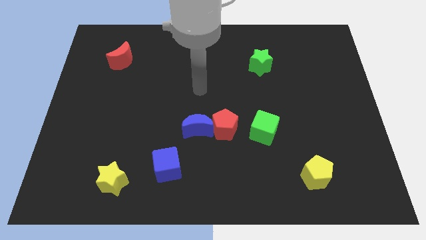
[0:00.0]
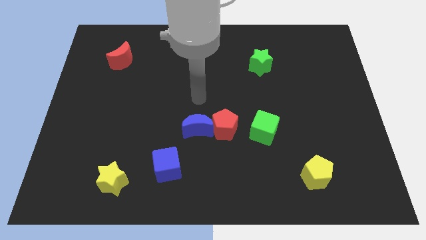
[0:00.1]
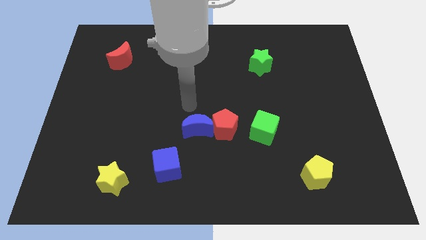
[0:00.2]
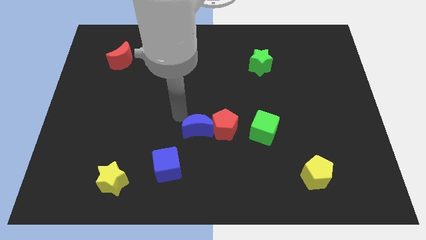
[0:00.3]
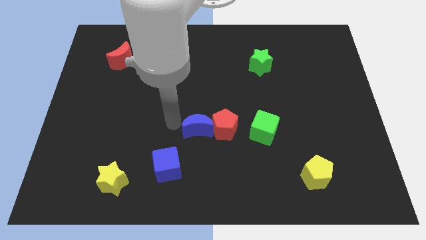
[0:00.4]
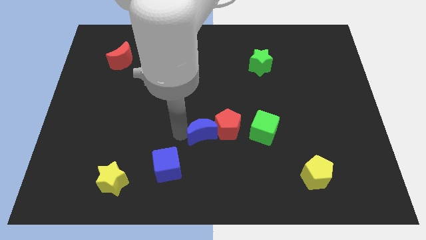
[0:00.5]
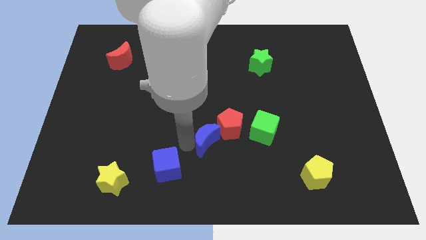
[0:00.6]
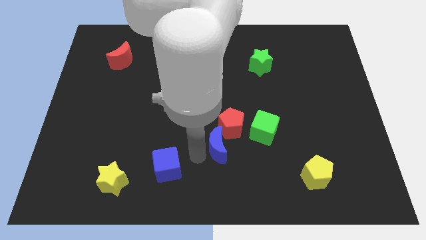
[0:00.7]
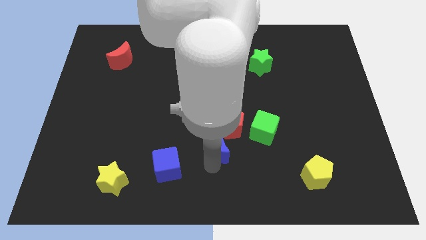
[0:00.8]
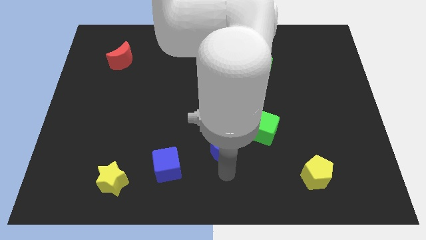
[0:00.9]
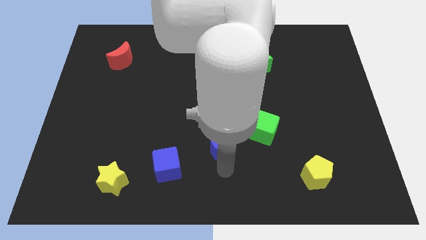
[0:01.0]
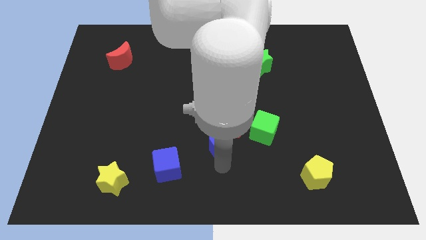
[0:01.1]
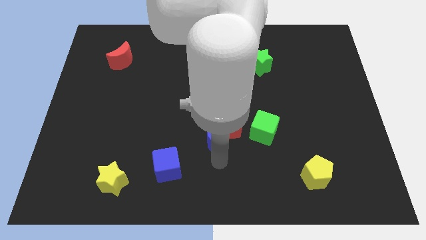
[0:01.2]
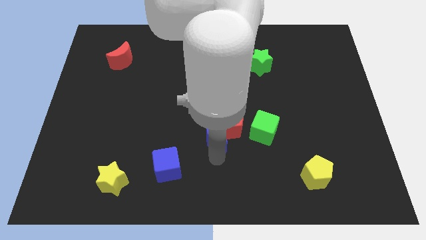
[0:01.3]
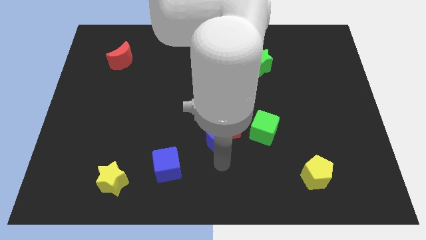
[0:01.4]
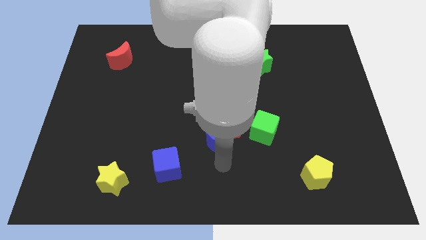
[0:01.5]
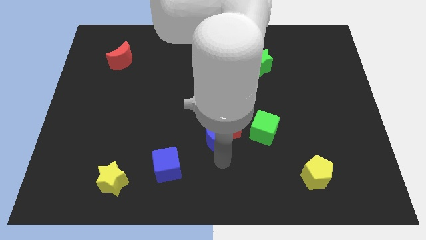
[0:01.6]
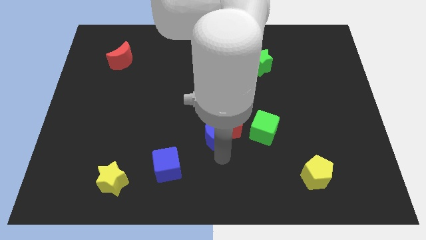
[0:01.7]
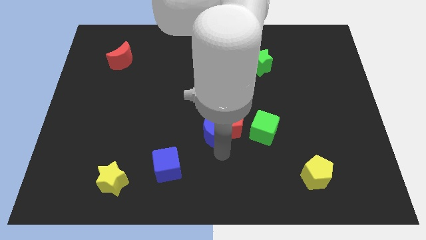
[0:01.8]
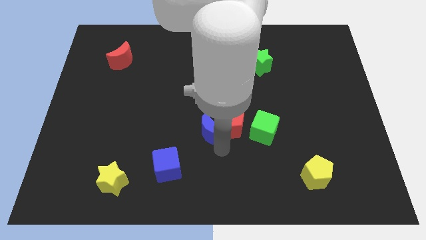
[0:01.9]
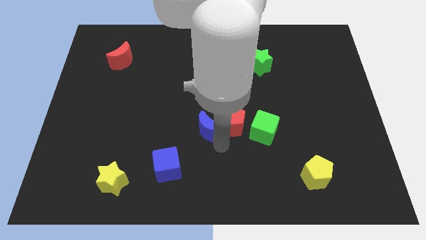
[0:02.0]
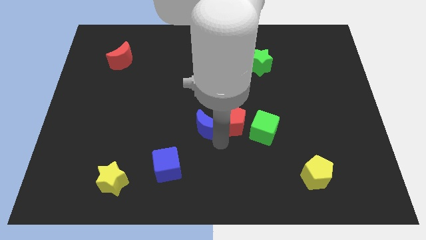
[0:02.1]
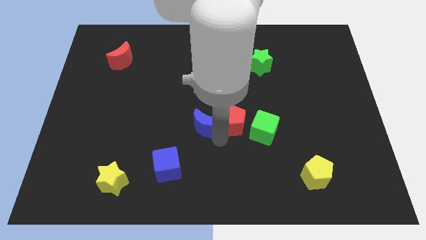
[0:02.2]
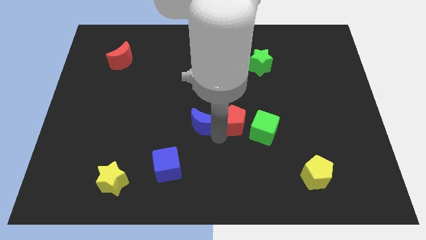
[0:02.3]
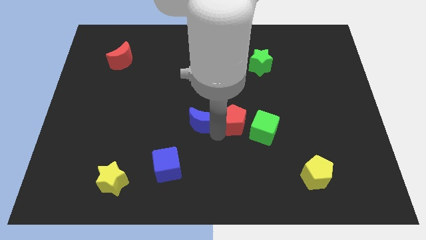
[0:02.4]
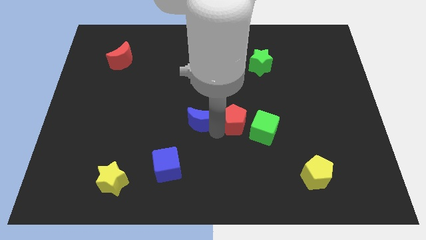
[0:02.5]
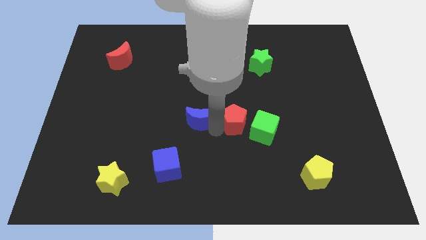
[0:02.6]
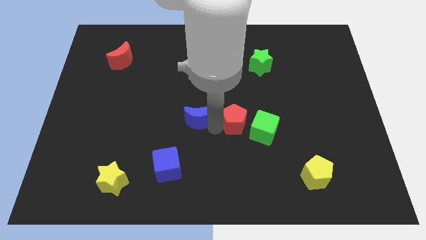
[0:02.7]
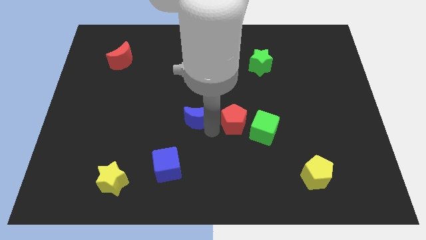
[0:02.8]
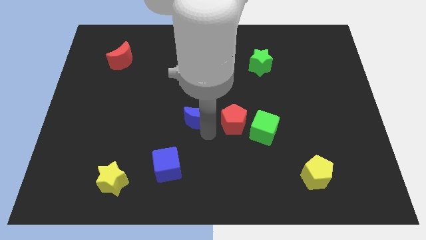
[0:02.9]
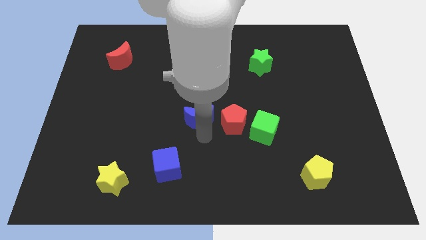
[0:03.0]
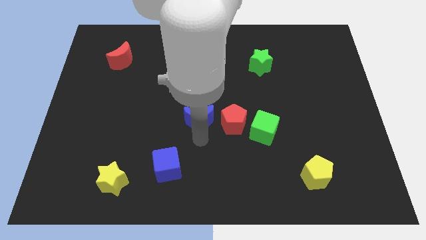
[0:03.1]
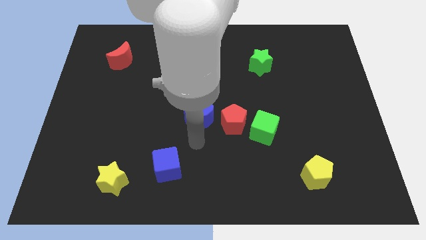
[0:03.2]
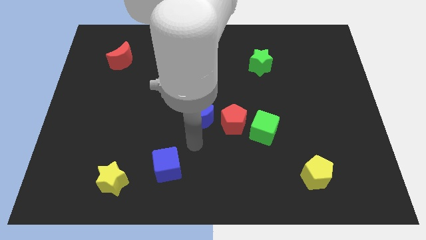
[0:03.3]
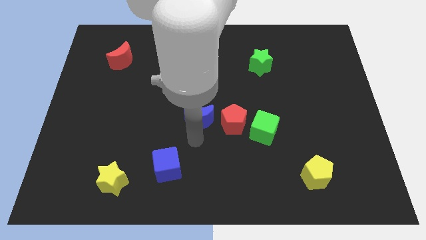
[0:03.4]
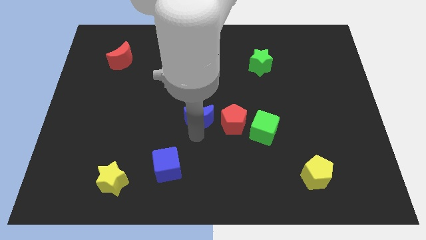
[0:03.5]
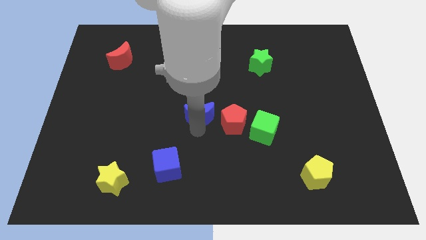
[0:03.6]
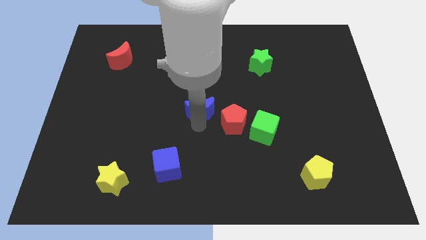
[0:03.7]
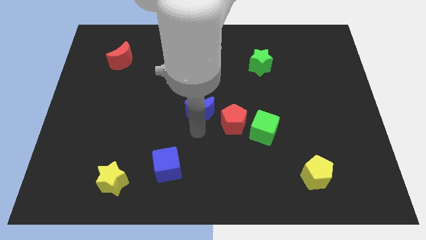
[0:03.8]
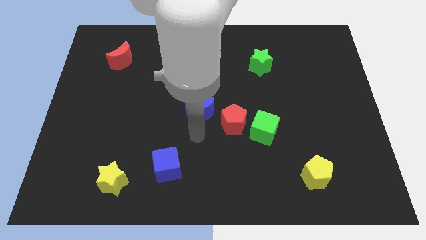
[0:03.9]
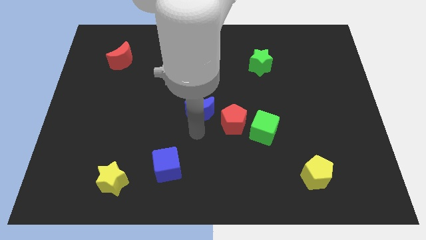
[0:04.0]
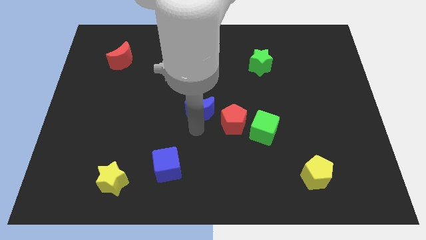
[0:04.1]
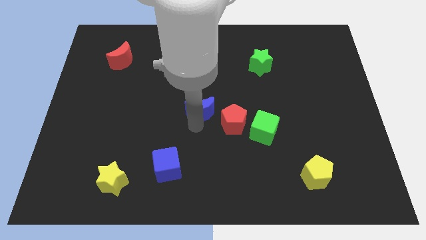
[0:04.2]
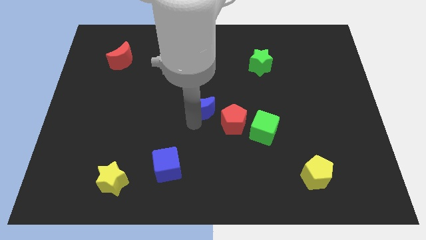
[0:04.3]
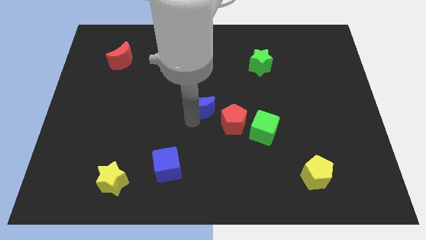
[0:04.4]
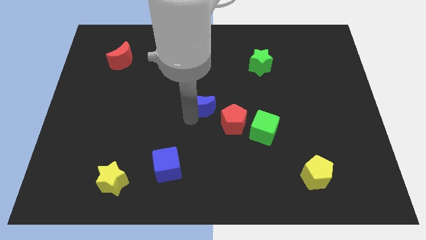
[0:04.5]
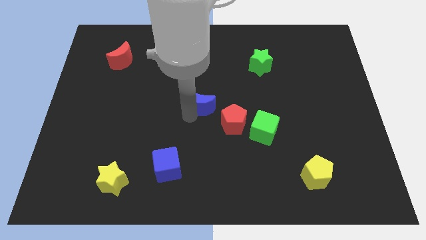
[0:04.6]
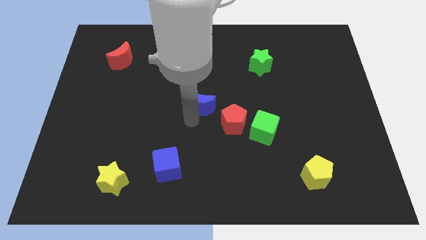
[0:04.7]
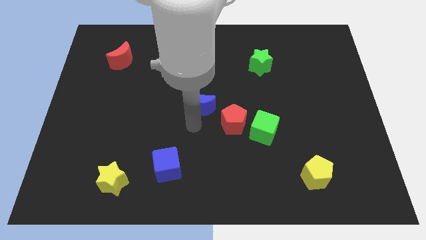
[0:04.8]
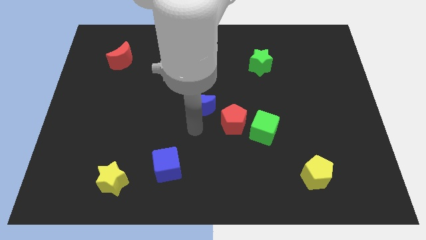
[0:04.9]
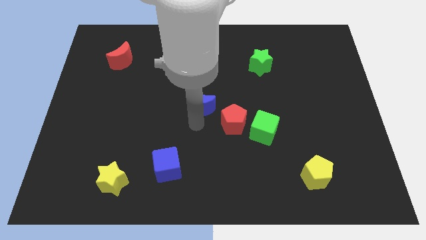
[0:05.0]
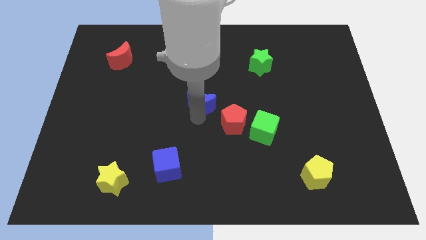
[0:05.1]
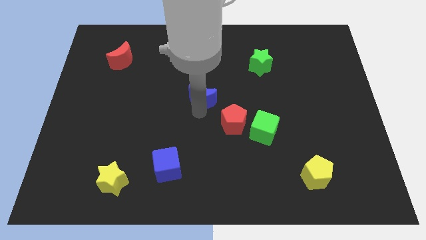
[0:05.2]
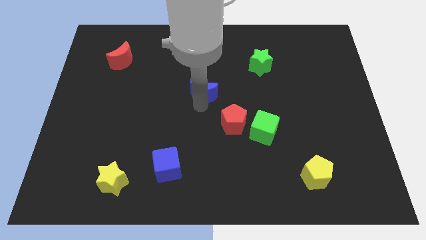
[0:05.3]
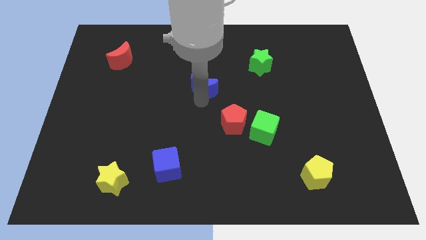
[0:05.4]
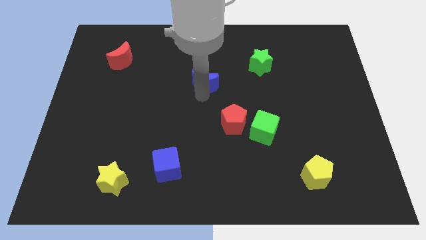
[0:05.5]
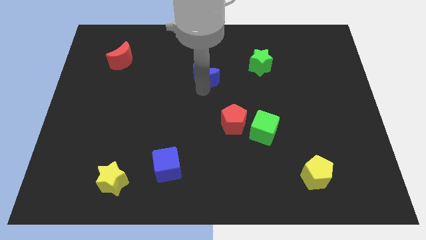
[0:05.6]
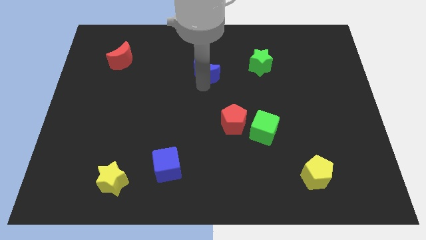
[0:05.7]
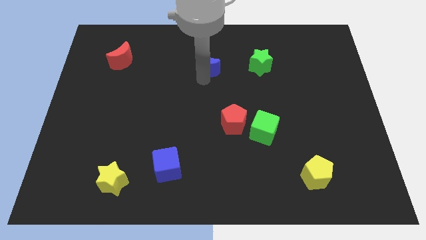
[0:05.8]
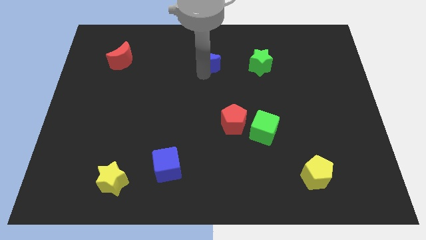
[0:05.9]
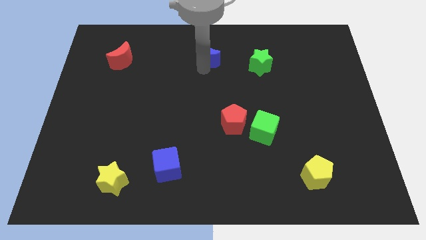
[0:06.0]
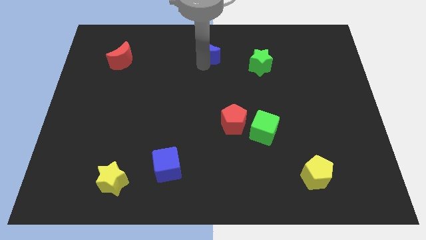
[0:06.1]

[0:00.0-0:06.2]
move the blue moon to the towards your base

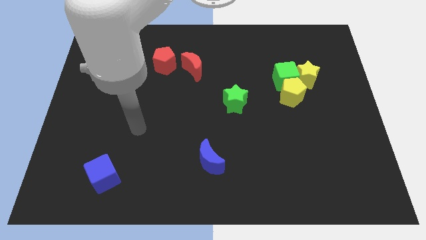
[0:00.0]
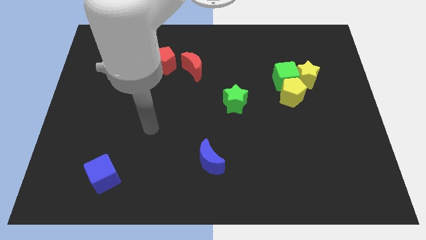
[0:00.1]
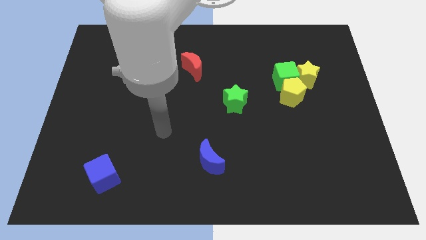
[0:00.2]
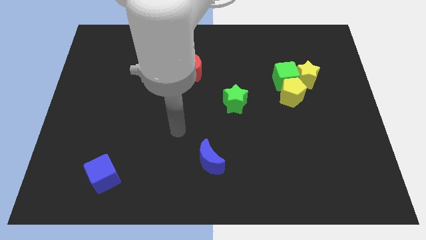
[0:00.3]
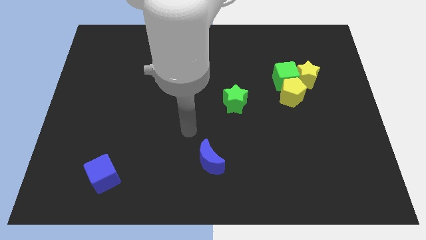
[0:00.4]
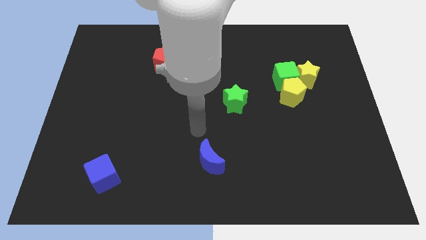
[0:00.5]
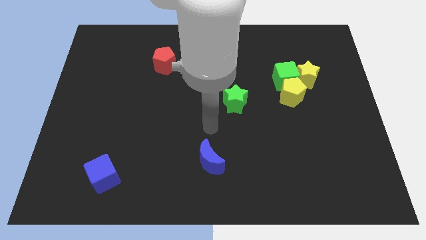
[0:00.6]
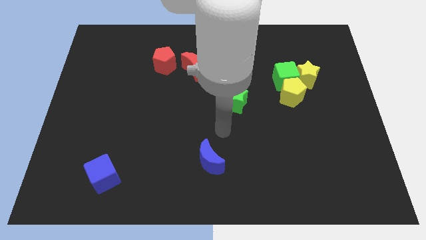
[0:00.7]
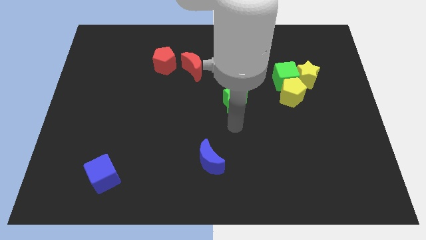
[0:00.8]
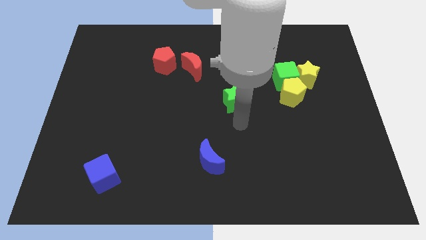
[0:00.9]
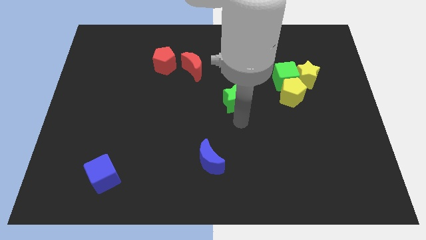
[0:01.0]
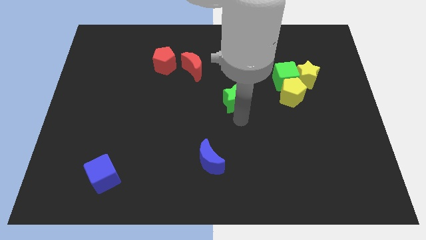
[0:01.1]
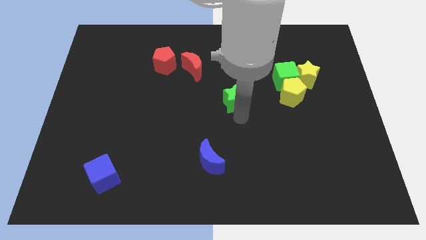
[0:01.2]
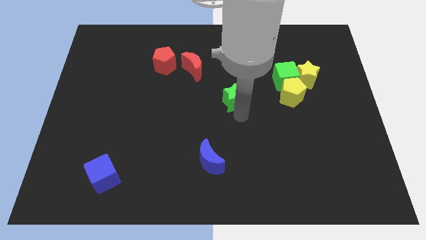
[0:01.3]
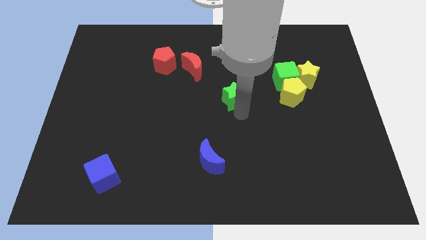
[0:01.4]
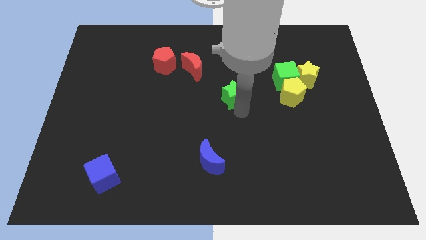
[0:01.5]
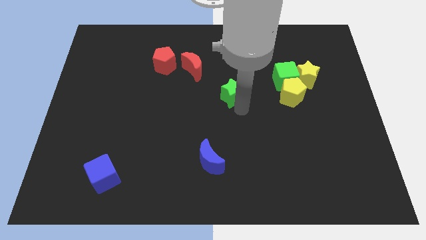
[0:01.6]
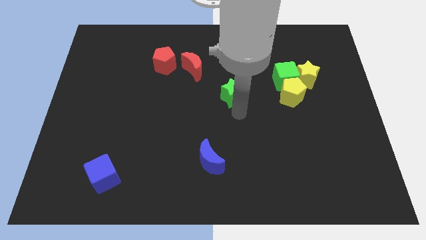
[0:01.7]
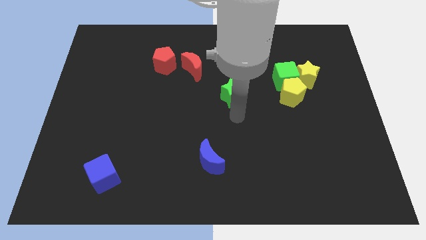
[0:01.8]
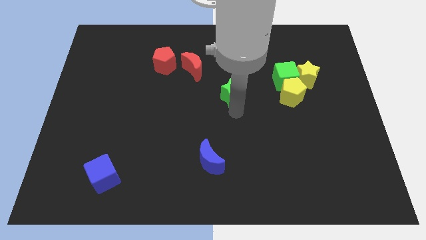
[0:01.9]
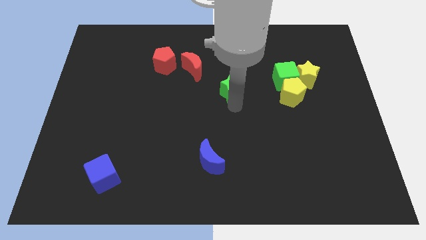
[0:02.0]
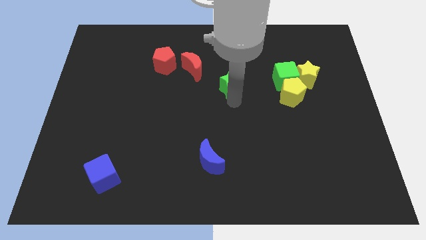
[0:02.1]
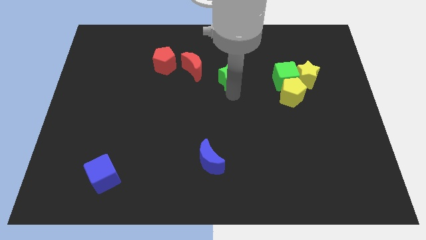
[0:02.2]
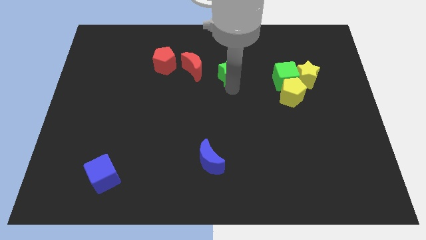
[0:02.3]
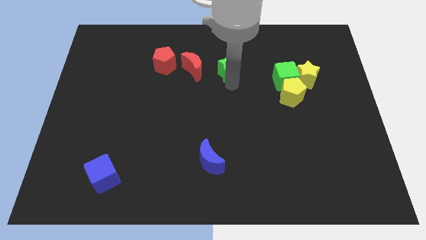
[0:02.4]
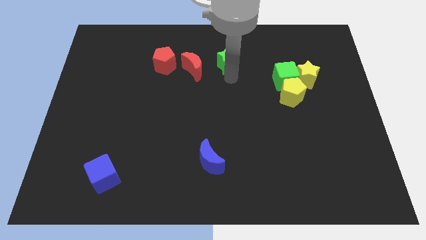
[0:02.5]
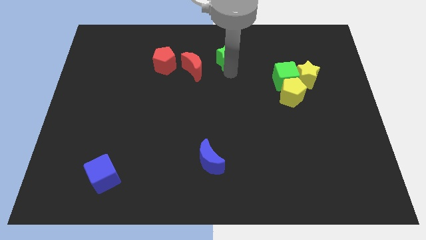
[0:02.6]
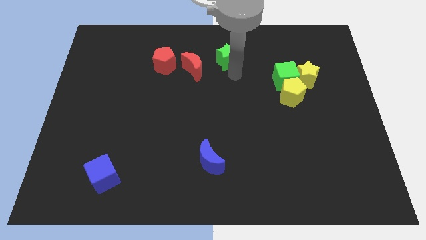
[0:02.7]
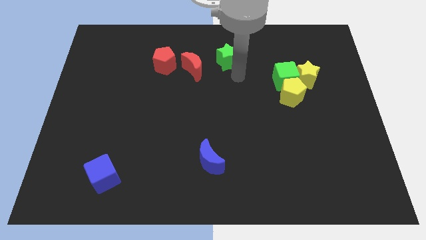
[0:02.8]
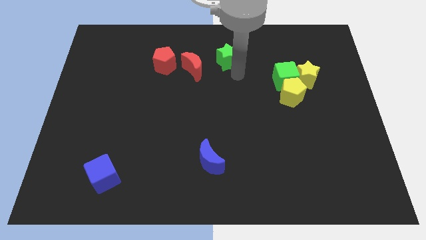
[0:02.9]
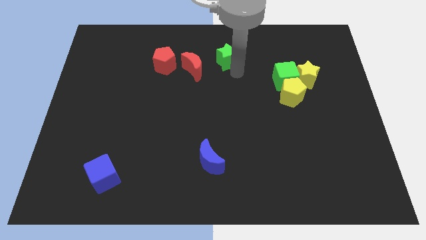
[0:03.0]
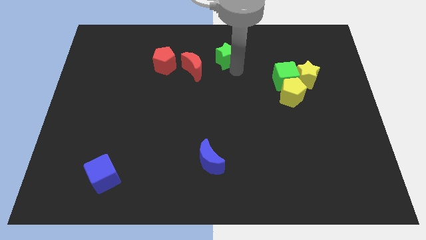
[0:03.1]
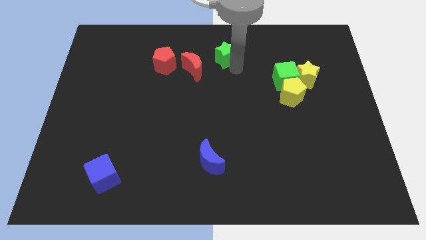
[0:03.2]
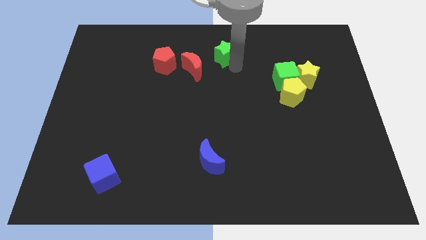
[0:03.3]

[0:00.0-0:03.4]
slide the green star to the top
